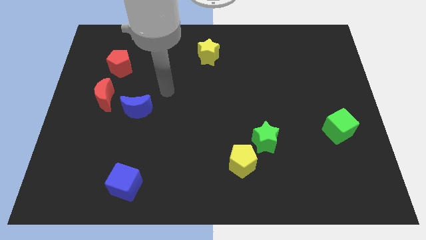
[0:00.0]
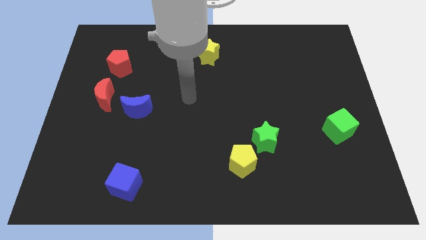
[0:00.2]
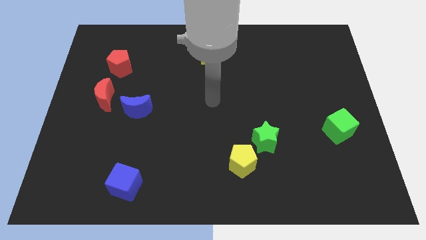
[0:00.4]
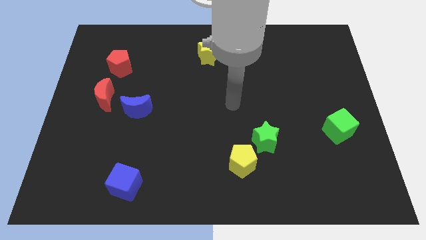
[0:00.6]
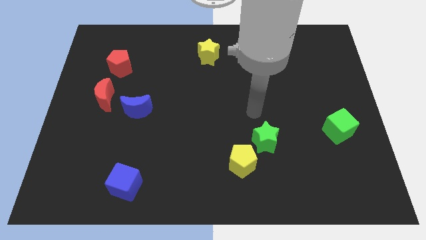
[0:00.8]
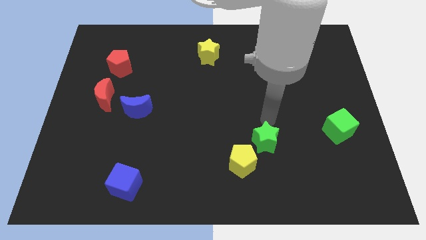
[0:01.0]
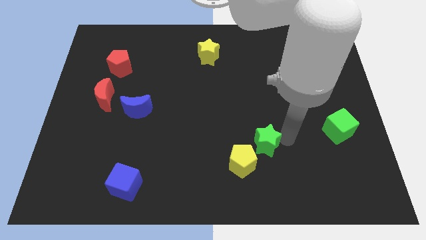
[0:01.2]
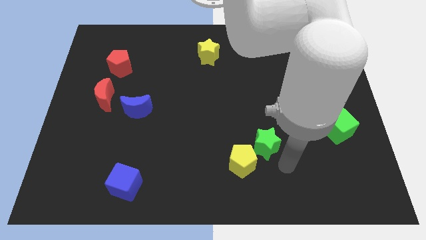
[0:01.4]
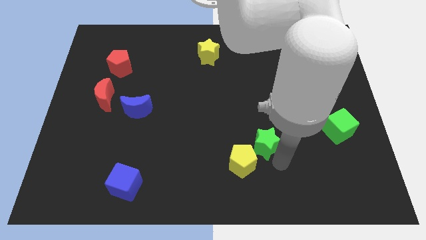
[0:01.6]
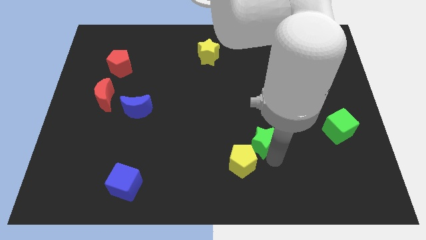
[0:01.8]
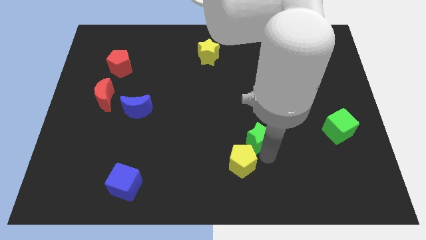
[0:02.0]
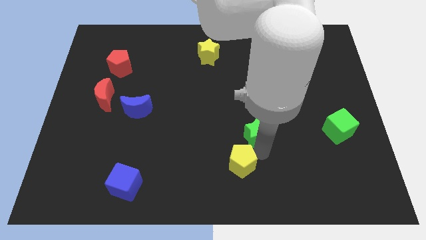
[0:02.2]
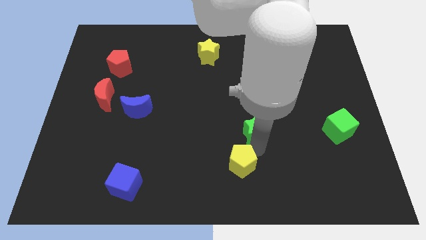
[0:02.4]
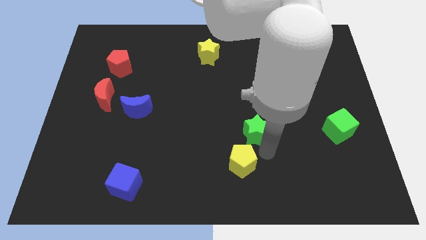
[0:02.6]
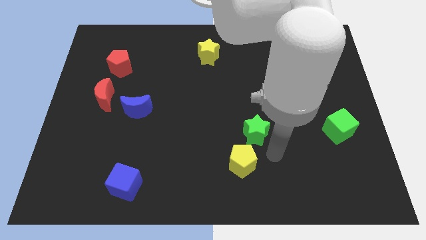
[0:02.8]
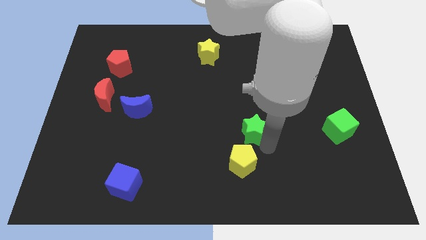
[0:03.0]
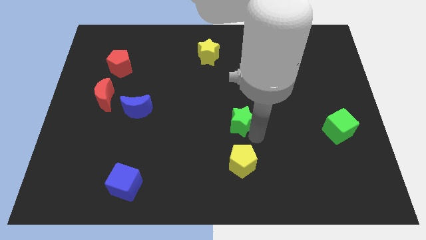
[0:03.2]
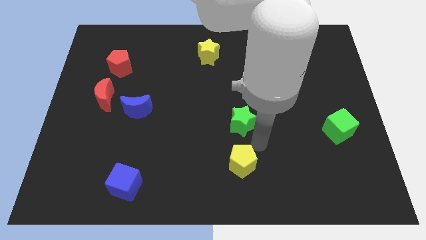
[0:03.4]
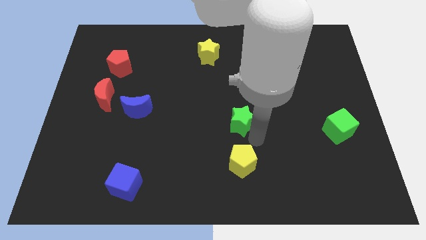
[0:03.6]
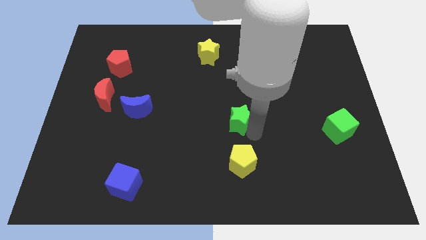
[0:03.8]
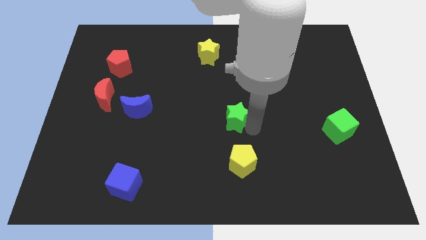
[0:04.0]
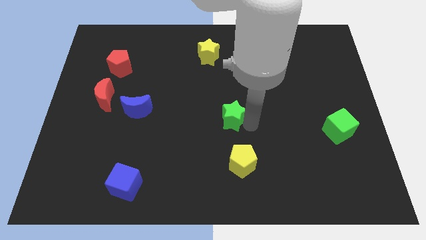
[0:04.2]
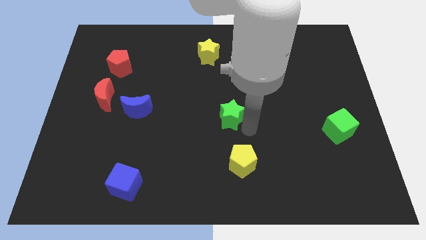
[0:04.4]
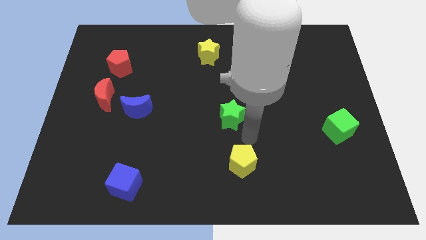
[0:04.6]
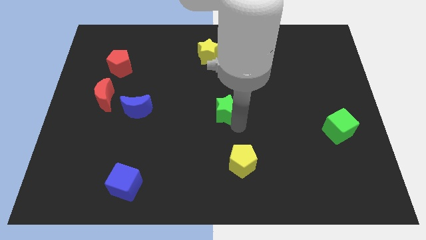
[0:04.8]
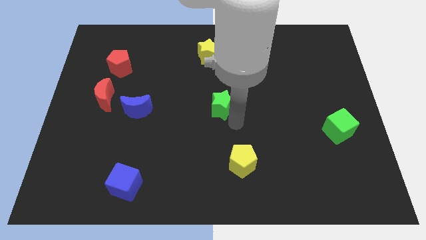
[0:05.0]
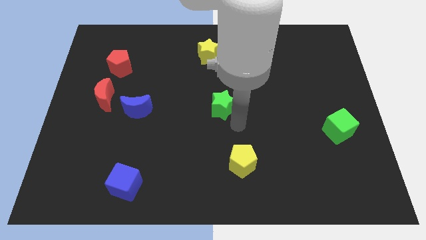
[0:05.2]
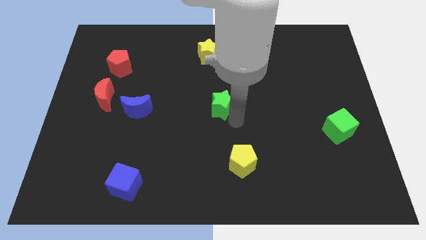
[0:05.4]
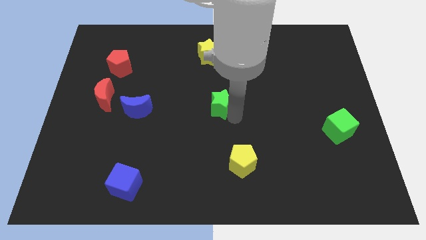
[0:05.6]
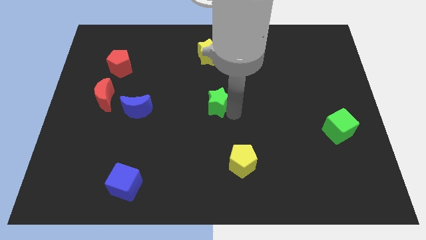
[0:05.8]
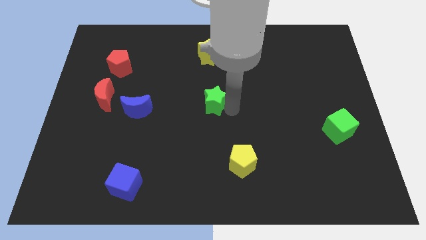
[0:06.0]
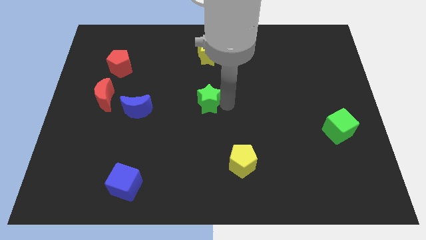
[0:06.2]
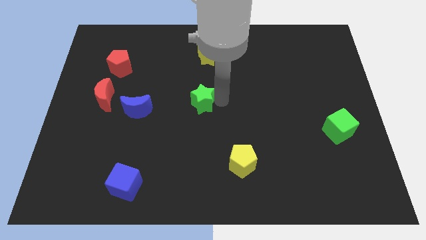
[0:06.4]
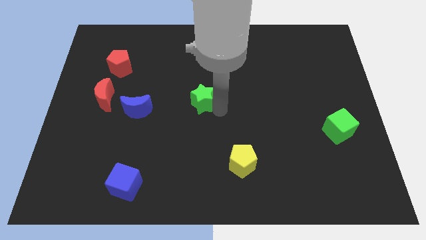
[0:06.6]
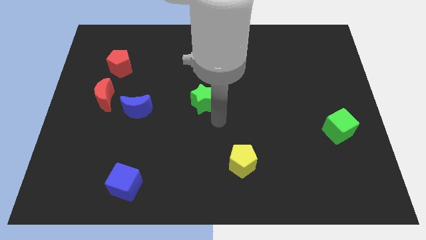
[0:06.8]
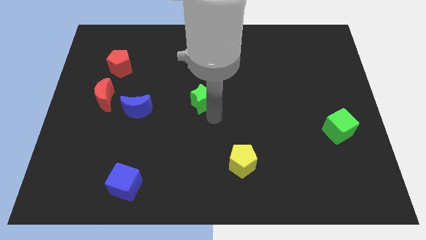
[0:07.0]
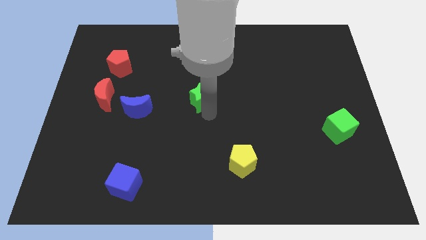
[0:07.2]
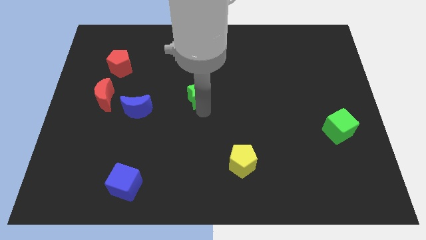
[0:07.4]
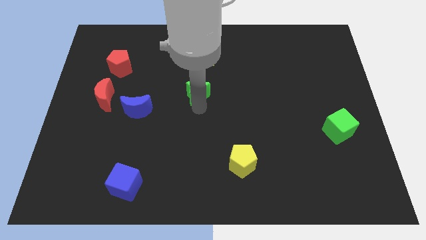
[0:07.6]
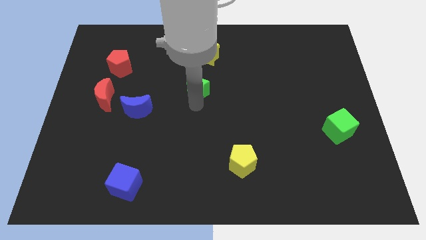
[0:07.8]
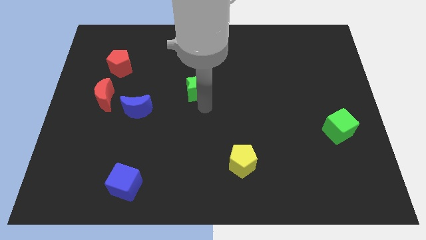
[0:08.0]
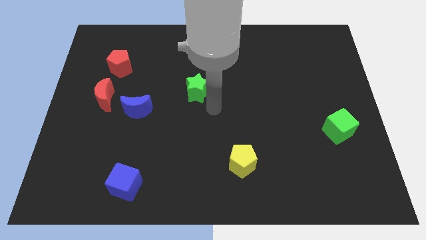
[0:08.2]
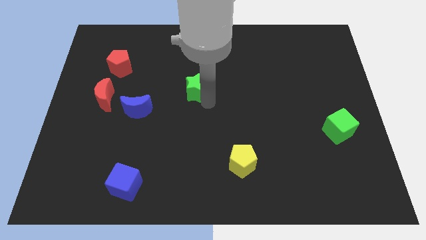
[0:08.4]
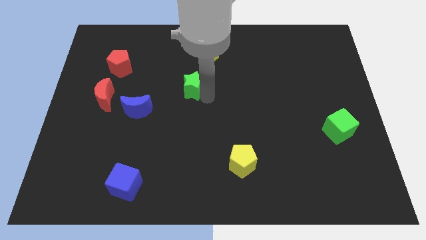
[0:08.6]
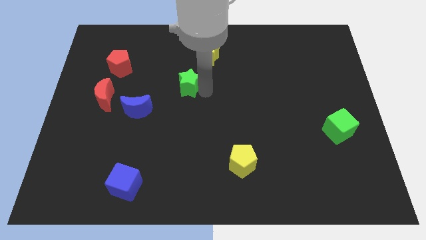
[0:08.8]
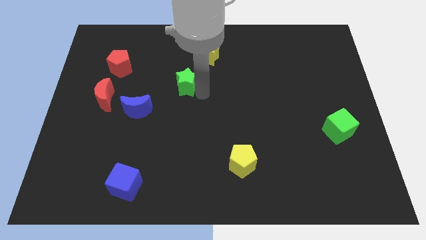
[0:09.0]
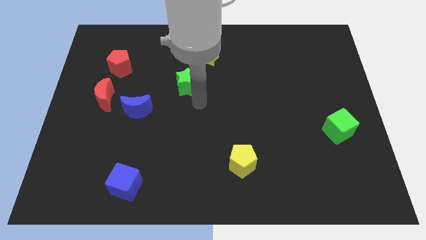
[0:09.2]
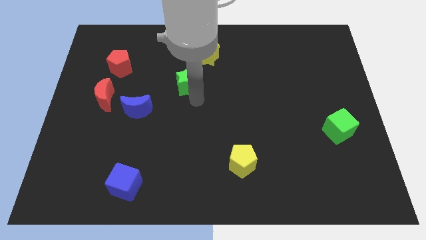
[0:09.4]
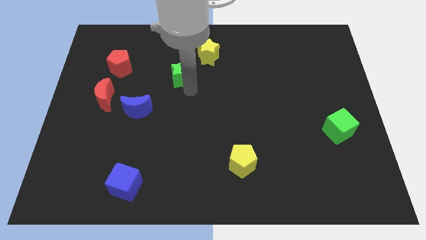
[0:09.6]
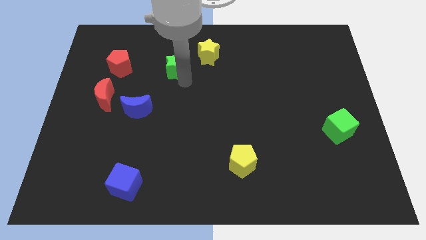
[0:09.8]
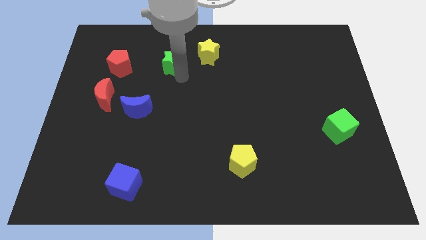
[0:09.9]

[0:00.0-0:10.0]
push the green star to the left of the yellow star

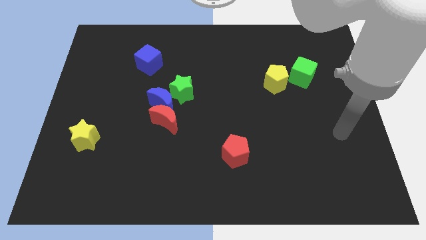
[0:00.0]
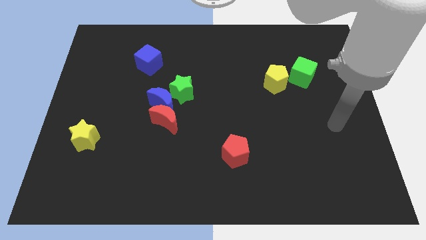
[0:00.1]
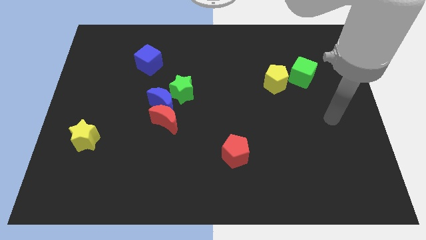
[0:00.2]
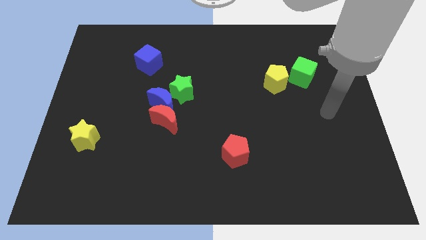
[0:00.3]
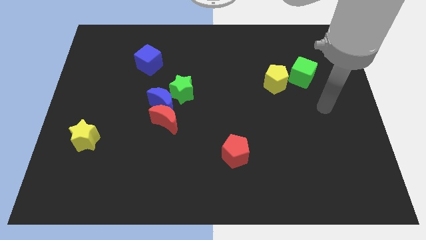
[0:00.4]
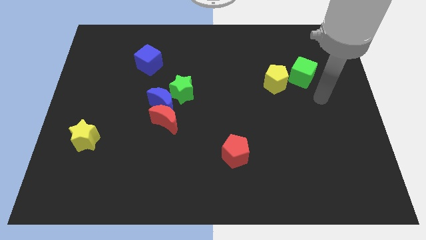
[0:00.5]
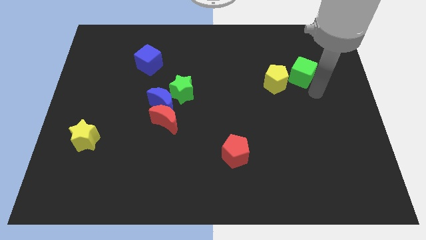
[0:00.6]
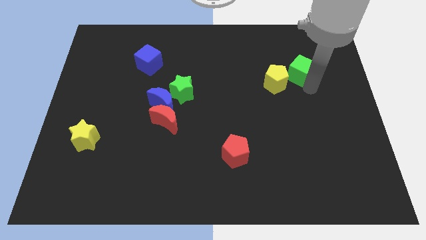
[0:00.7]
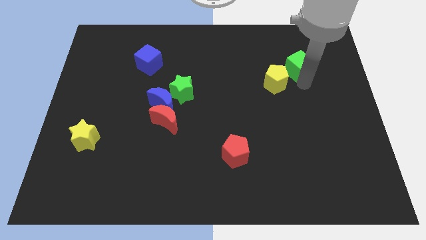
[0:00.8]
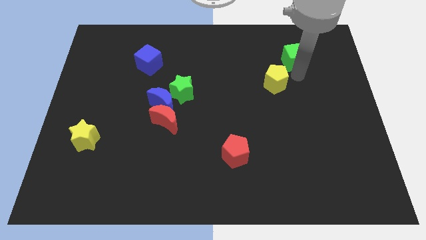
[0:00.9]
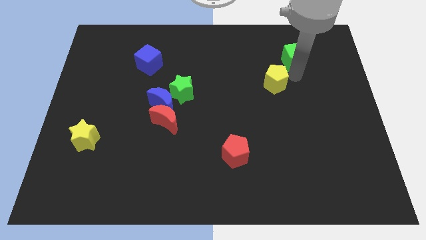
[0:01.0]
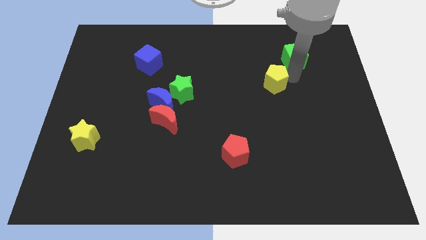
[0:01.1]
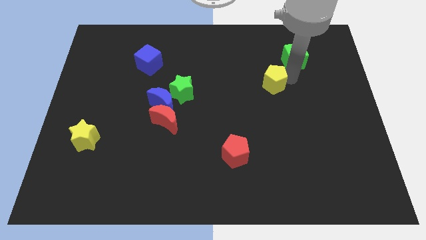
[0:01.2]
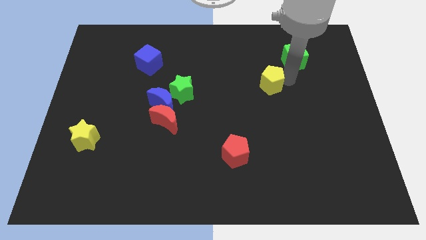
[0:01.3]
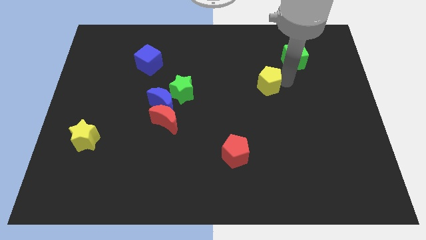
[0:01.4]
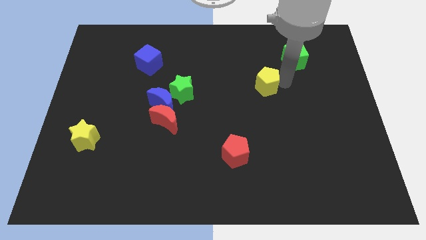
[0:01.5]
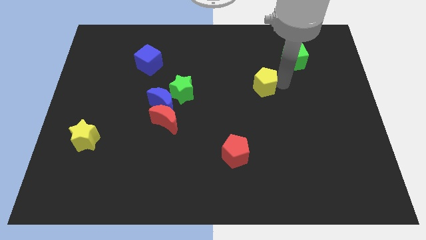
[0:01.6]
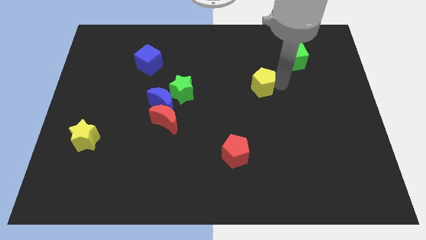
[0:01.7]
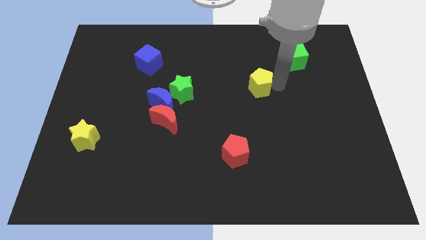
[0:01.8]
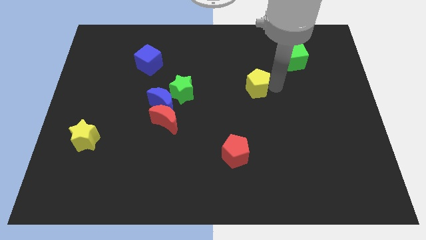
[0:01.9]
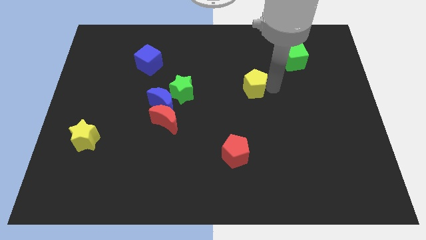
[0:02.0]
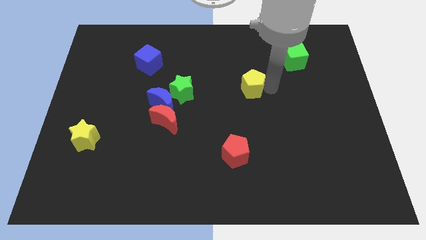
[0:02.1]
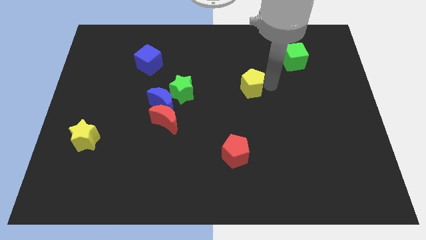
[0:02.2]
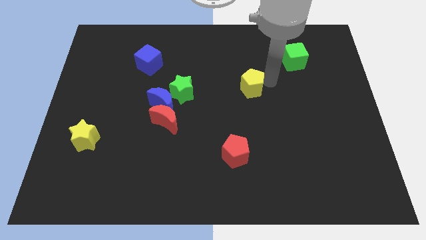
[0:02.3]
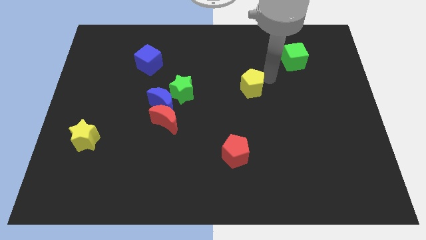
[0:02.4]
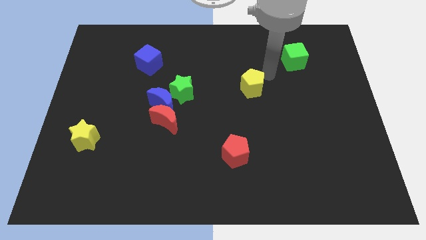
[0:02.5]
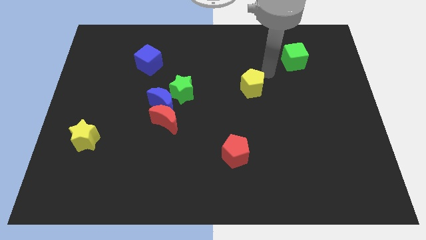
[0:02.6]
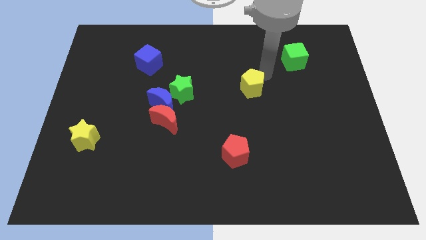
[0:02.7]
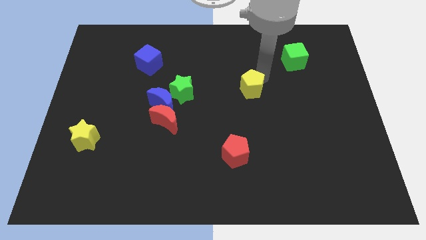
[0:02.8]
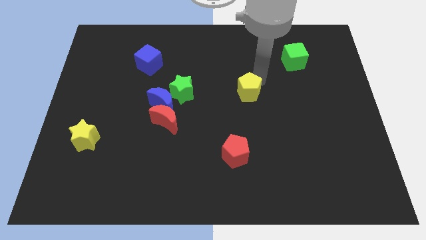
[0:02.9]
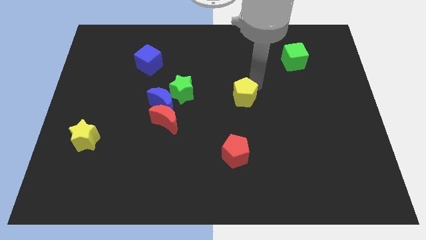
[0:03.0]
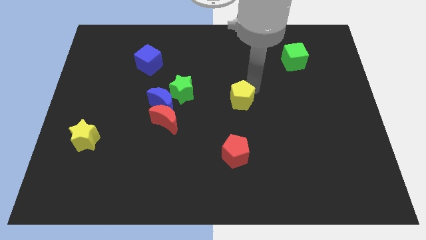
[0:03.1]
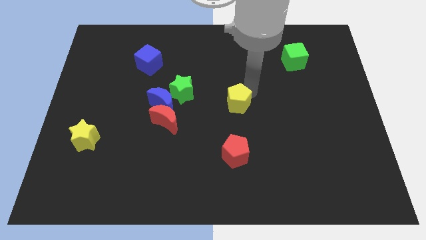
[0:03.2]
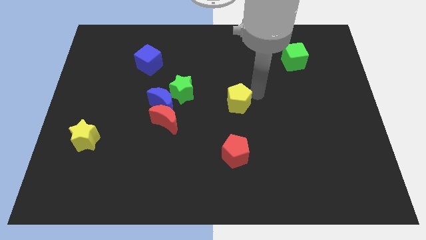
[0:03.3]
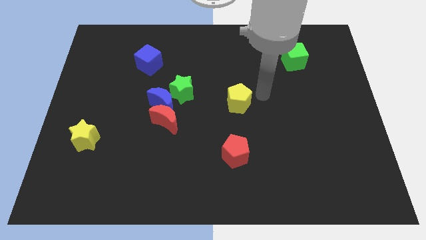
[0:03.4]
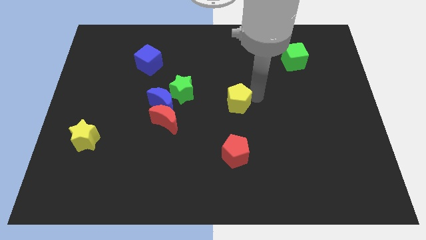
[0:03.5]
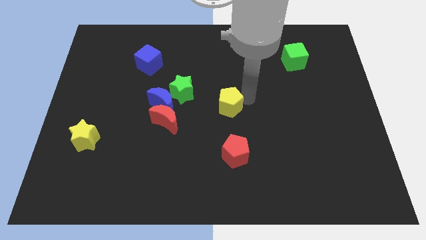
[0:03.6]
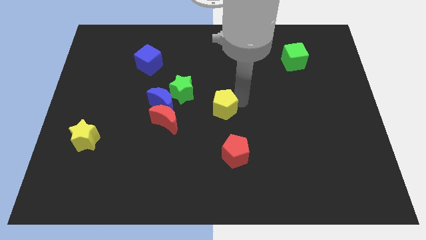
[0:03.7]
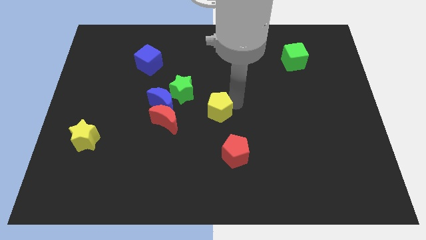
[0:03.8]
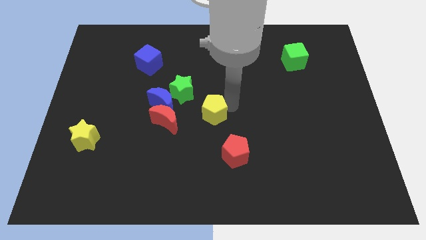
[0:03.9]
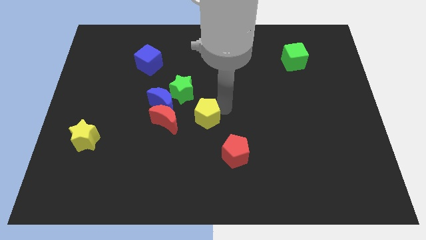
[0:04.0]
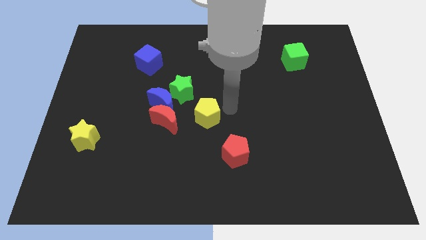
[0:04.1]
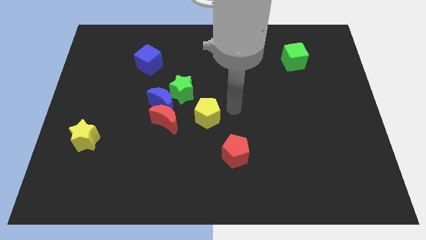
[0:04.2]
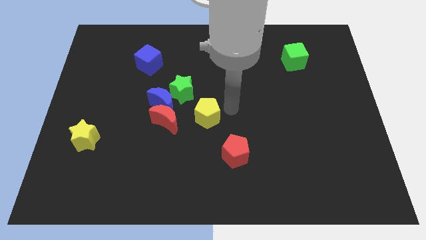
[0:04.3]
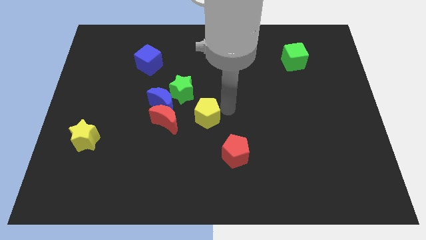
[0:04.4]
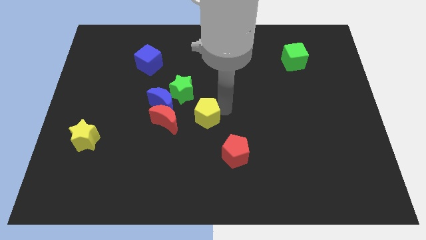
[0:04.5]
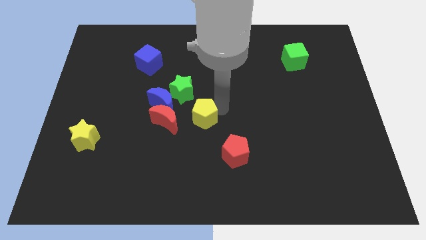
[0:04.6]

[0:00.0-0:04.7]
put the yellow pentagon diagonally down and to the right of the blue moon
